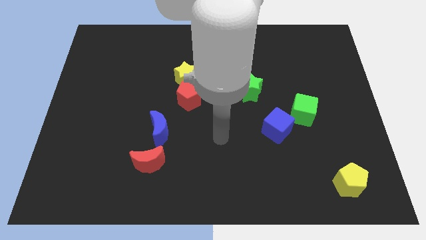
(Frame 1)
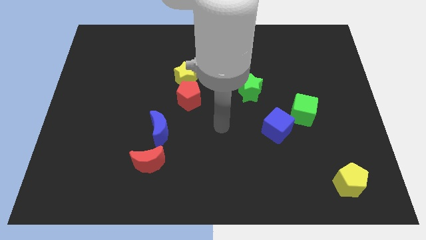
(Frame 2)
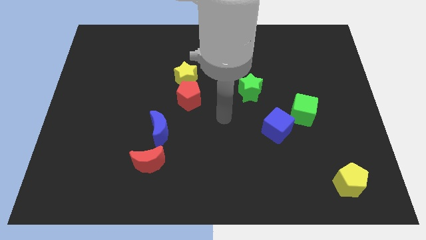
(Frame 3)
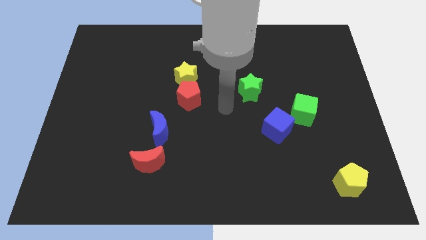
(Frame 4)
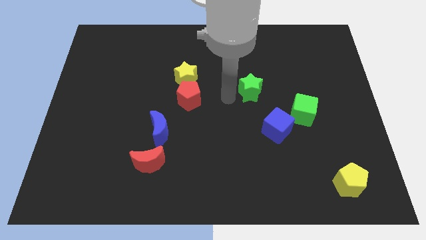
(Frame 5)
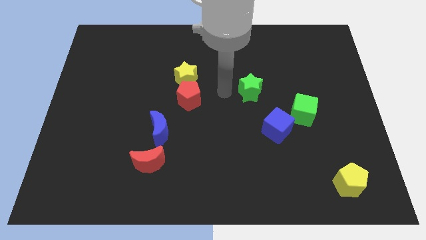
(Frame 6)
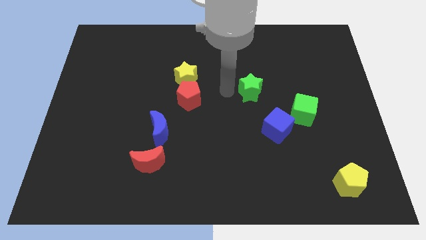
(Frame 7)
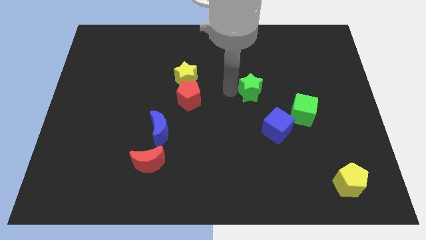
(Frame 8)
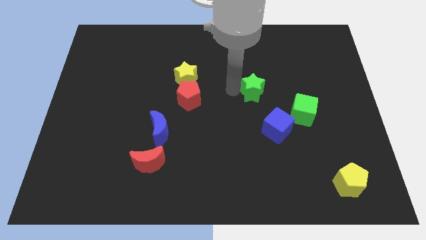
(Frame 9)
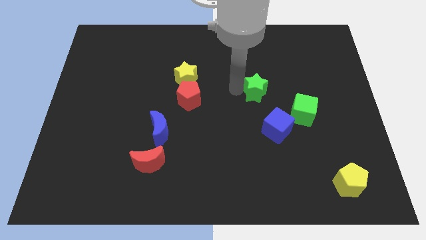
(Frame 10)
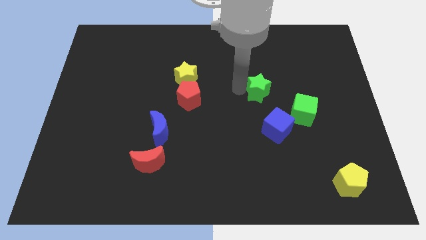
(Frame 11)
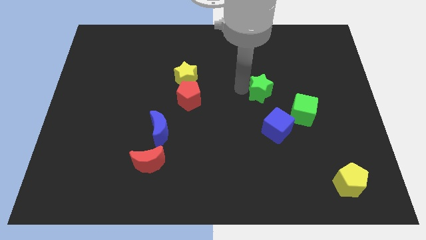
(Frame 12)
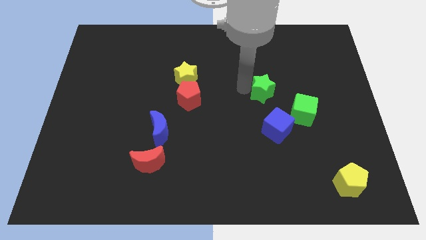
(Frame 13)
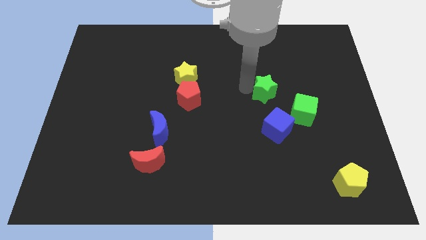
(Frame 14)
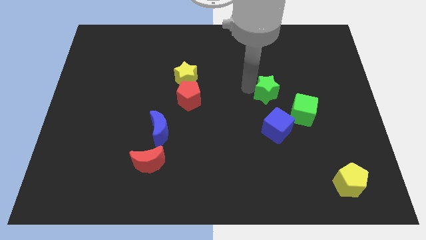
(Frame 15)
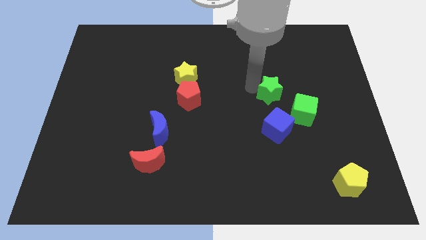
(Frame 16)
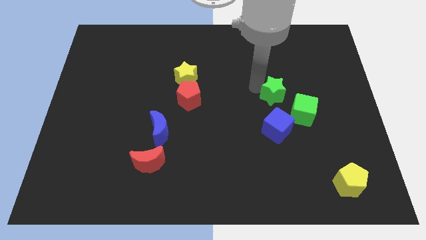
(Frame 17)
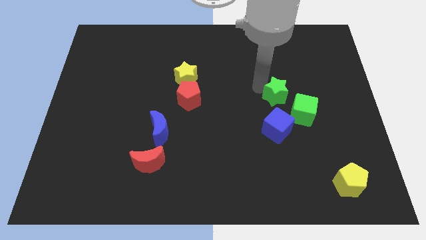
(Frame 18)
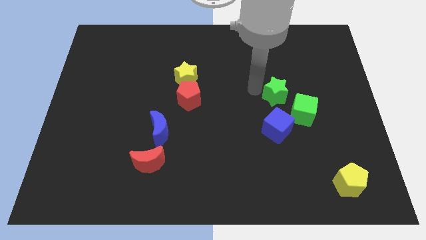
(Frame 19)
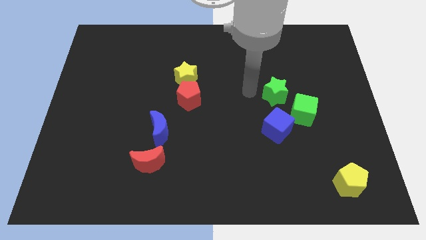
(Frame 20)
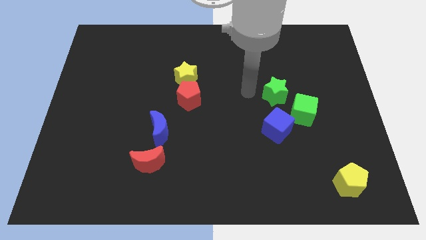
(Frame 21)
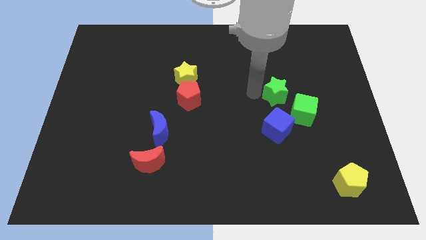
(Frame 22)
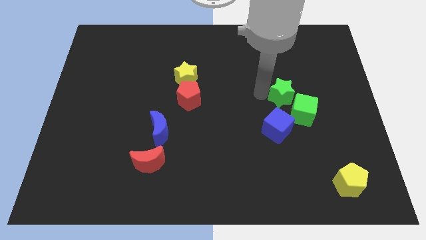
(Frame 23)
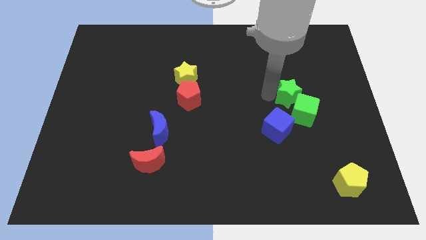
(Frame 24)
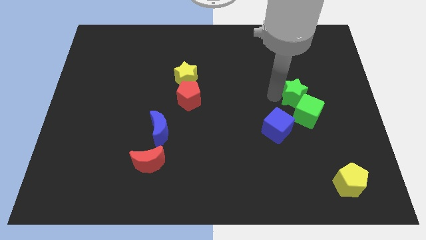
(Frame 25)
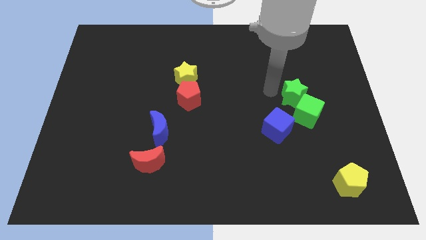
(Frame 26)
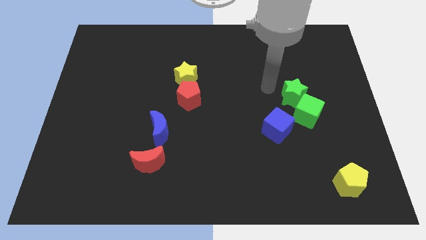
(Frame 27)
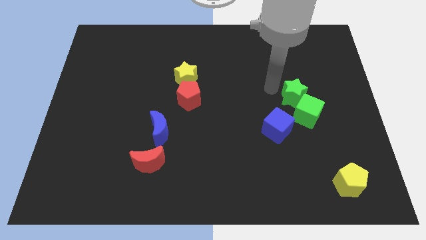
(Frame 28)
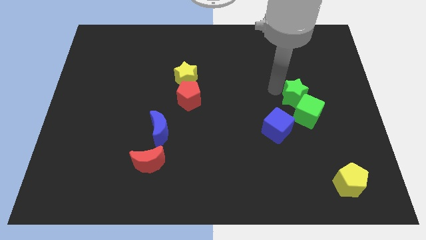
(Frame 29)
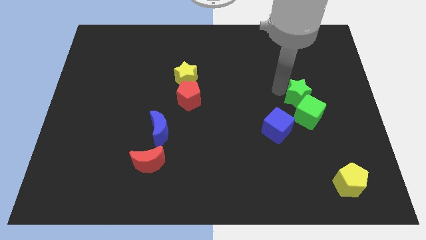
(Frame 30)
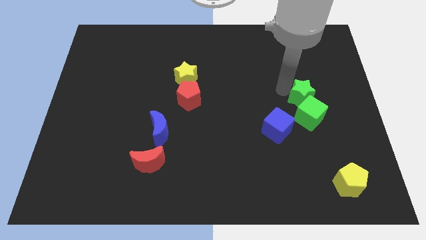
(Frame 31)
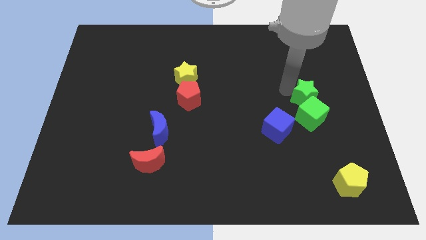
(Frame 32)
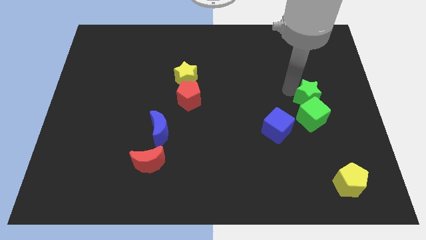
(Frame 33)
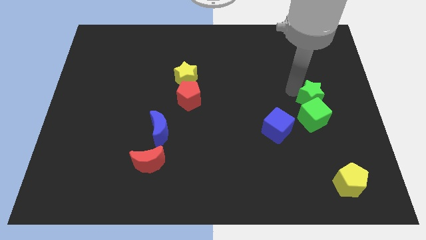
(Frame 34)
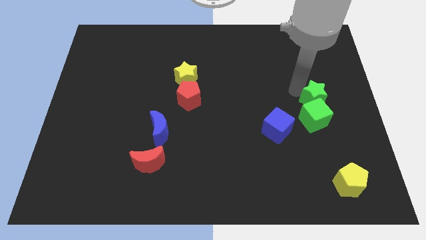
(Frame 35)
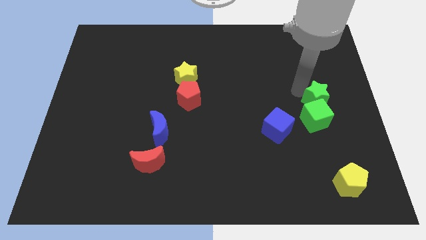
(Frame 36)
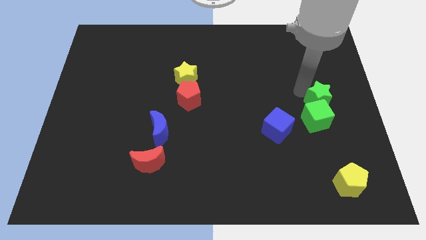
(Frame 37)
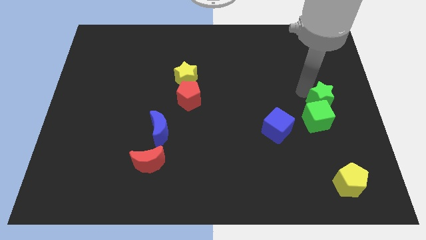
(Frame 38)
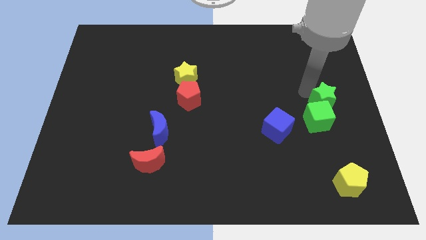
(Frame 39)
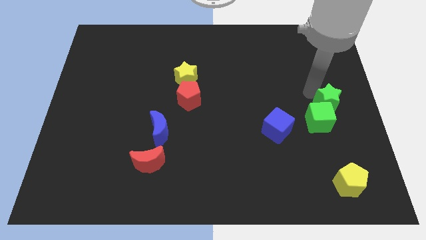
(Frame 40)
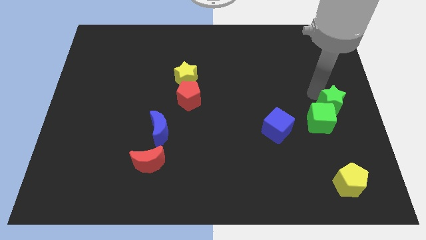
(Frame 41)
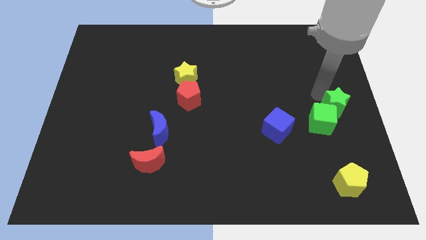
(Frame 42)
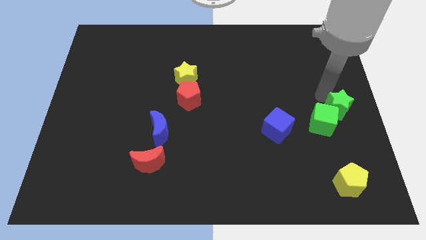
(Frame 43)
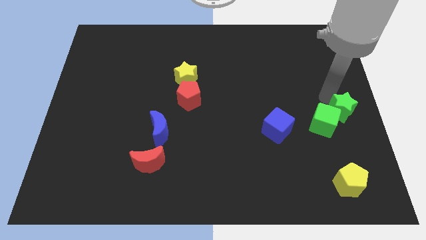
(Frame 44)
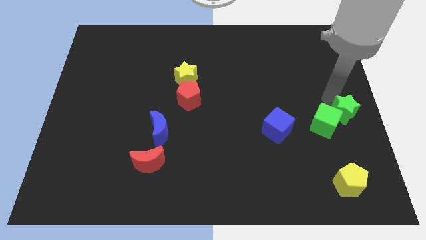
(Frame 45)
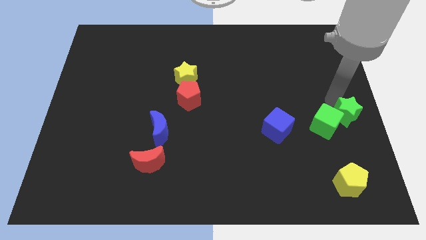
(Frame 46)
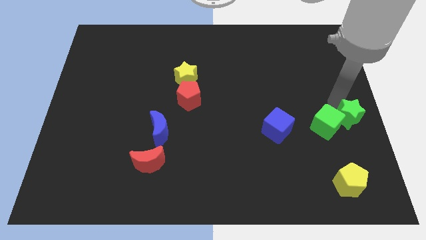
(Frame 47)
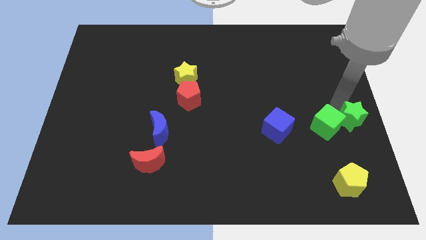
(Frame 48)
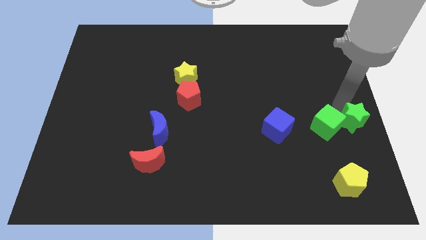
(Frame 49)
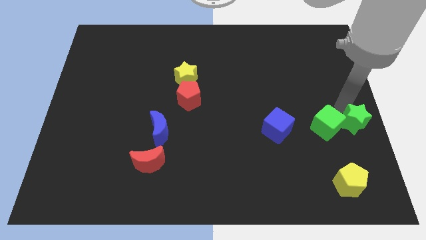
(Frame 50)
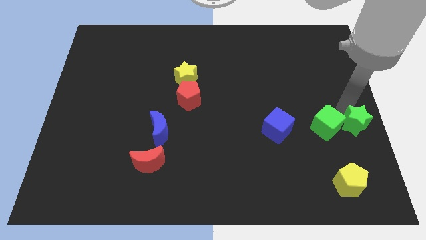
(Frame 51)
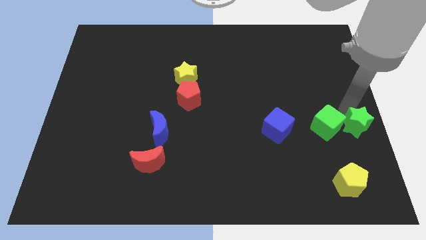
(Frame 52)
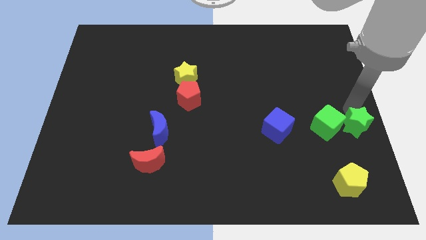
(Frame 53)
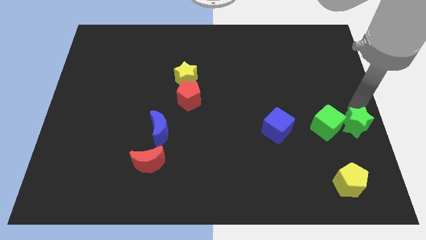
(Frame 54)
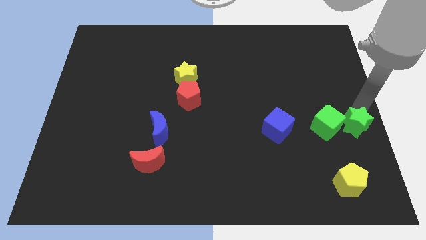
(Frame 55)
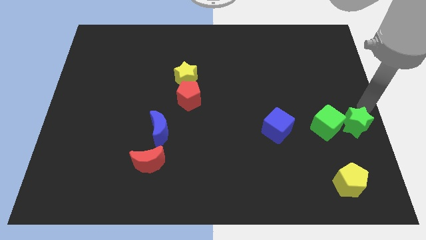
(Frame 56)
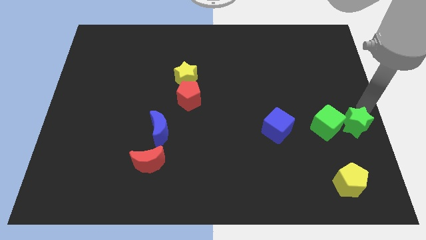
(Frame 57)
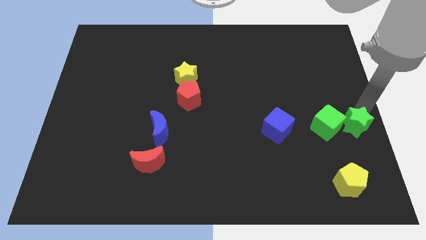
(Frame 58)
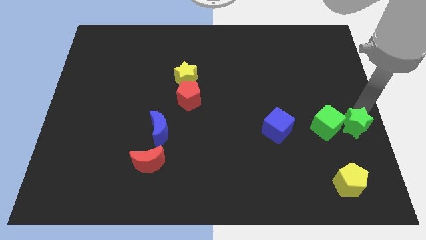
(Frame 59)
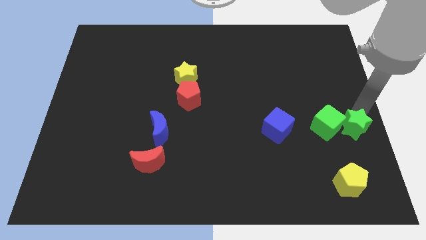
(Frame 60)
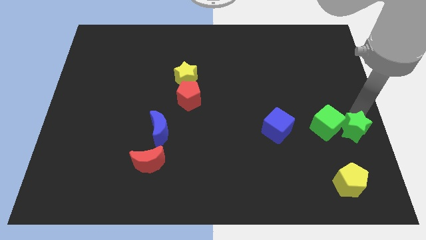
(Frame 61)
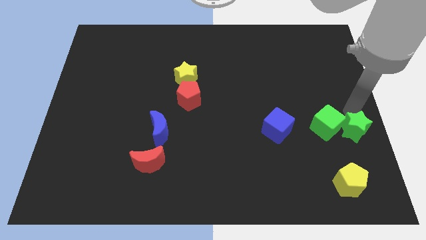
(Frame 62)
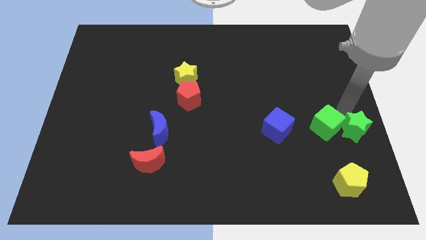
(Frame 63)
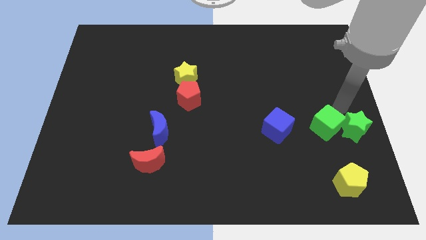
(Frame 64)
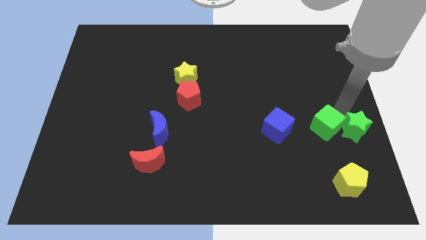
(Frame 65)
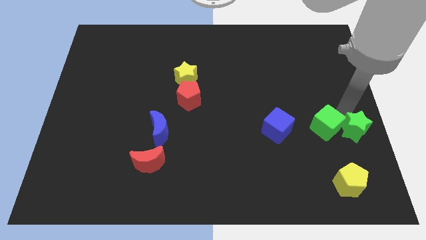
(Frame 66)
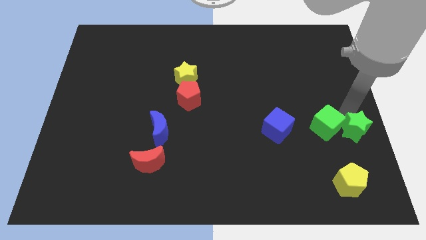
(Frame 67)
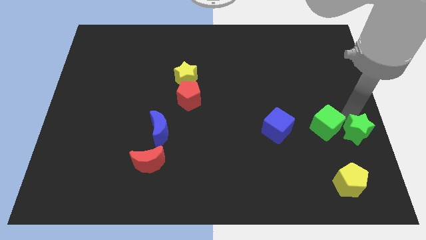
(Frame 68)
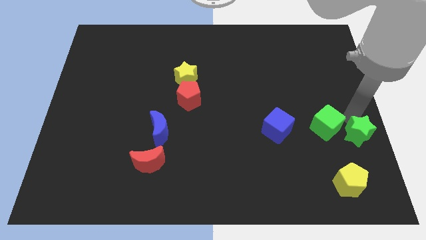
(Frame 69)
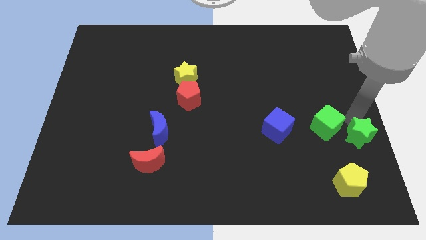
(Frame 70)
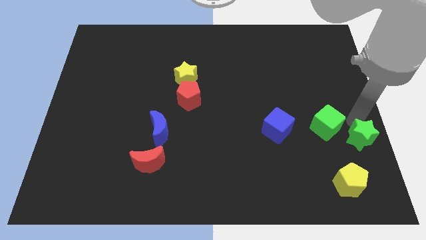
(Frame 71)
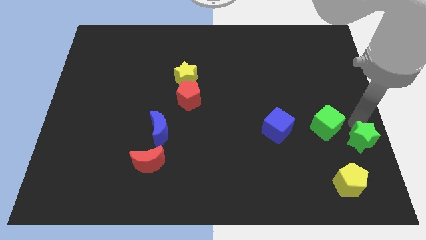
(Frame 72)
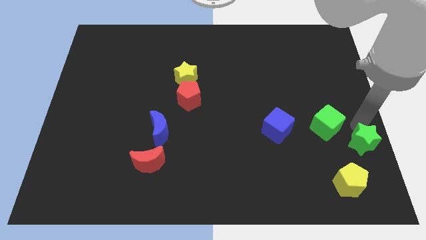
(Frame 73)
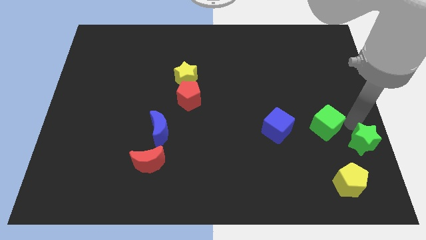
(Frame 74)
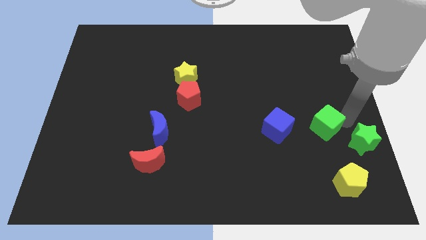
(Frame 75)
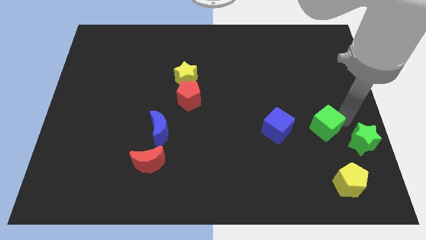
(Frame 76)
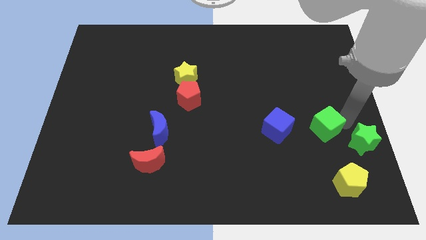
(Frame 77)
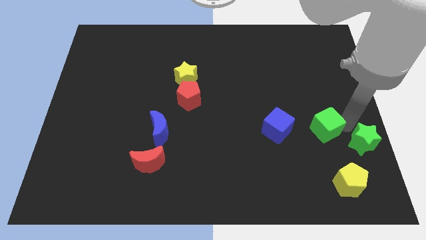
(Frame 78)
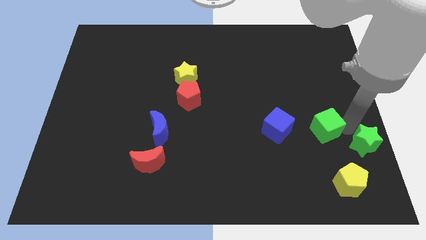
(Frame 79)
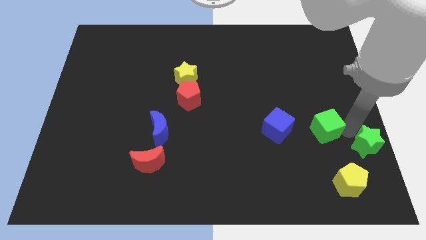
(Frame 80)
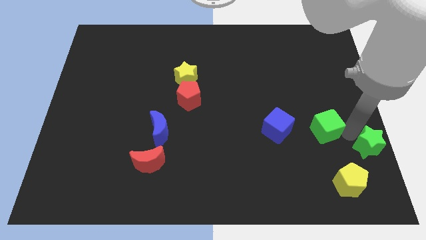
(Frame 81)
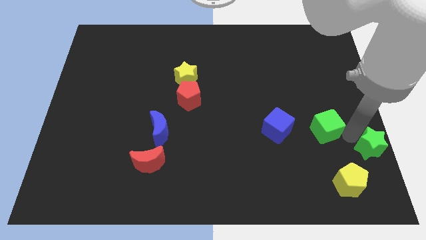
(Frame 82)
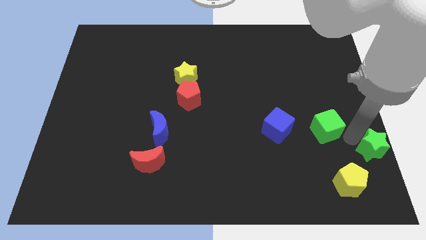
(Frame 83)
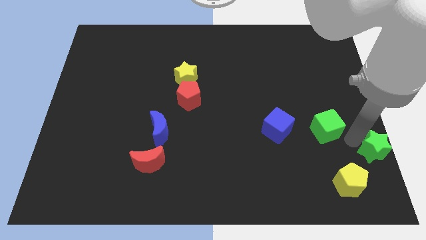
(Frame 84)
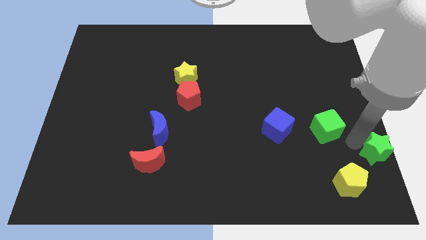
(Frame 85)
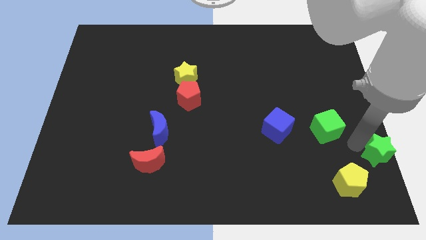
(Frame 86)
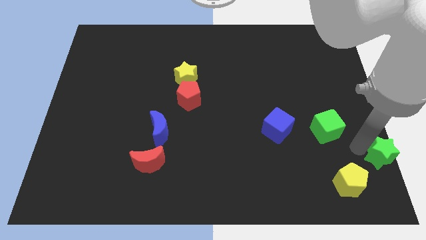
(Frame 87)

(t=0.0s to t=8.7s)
push the green star to the bottom right of the board
